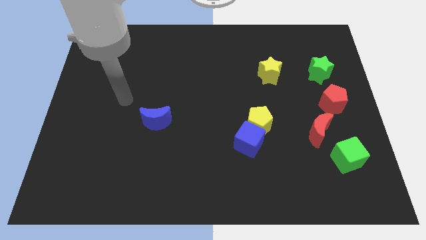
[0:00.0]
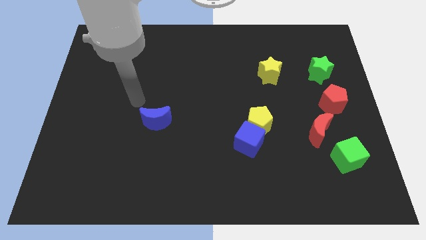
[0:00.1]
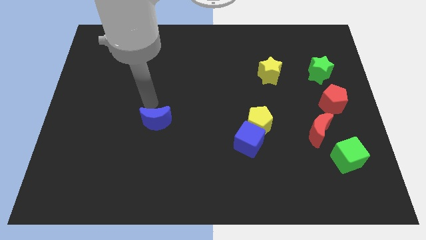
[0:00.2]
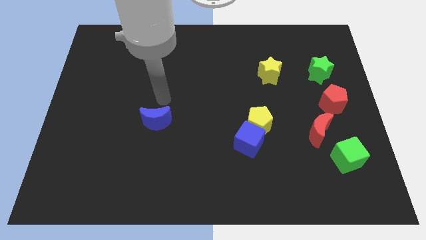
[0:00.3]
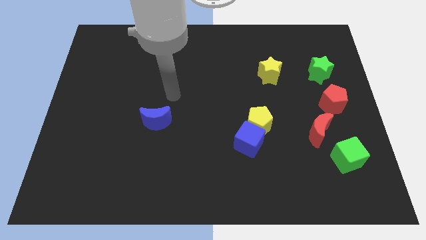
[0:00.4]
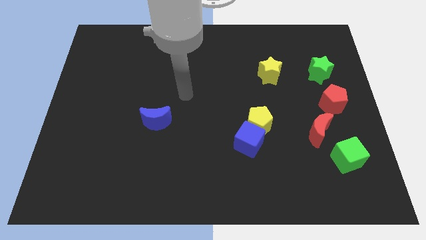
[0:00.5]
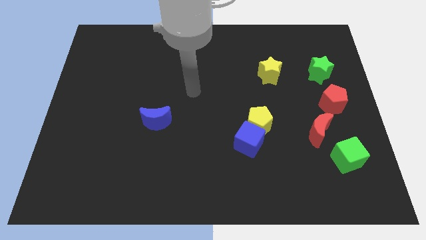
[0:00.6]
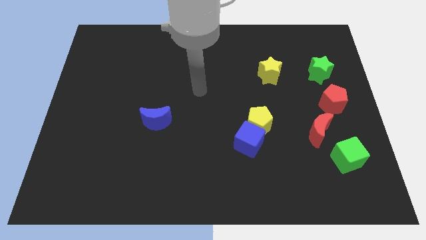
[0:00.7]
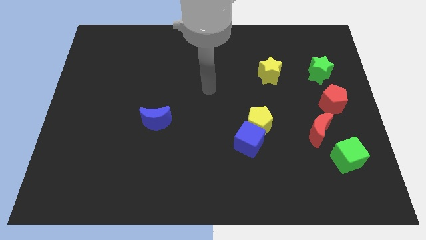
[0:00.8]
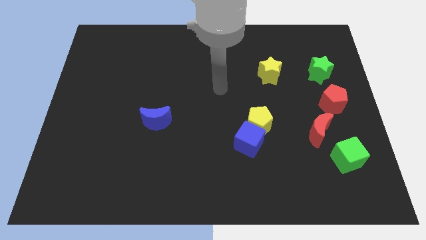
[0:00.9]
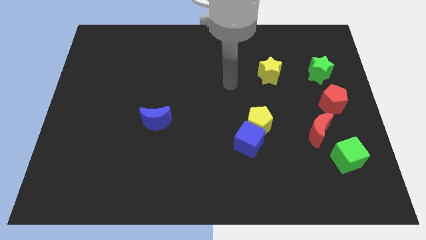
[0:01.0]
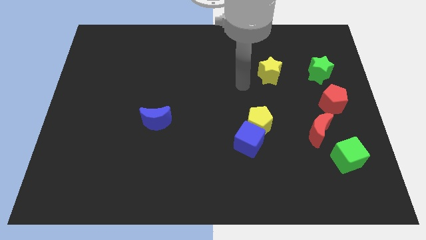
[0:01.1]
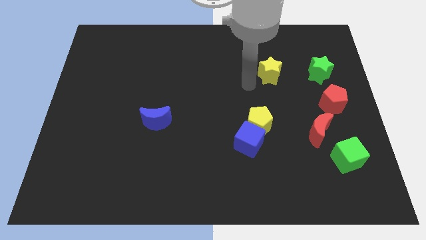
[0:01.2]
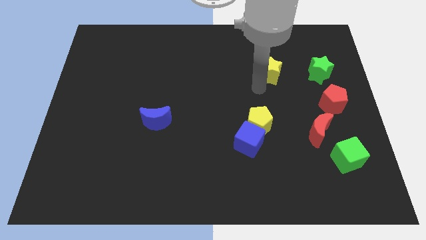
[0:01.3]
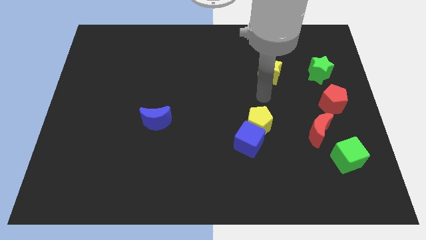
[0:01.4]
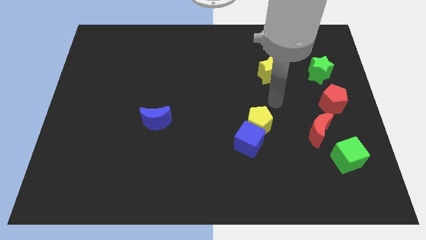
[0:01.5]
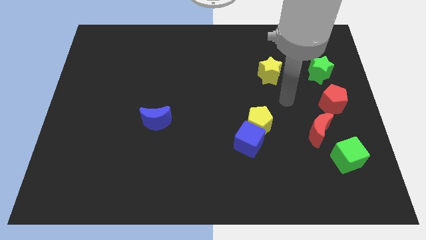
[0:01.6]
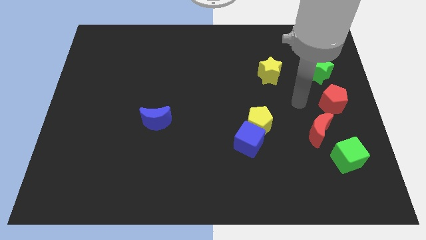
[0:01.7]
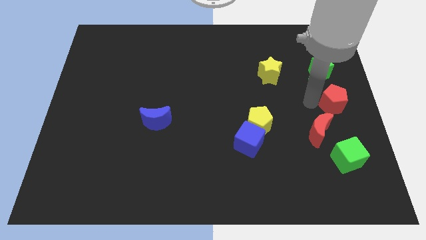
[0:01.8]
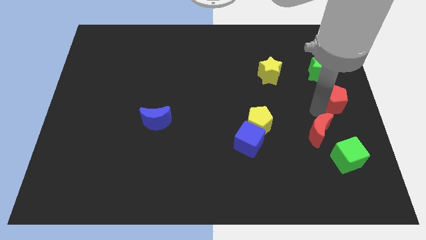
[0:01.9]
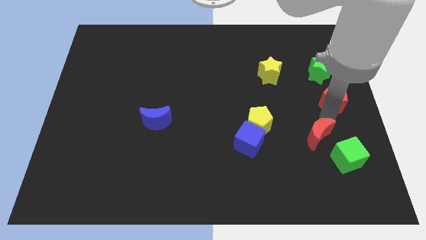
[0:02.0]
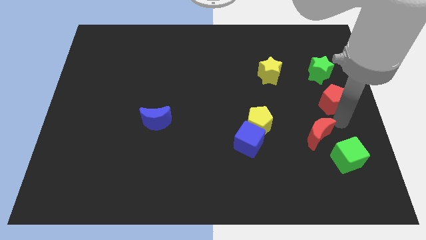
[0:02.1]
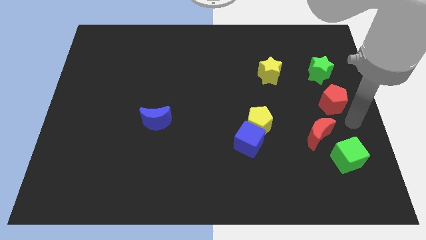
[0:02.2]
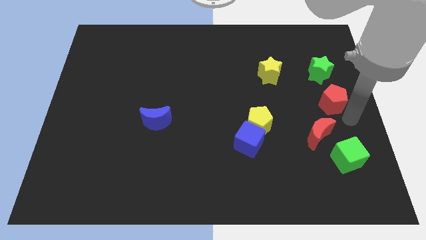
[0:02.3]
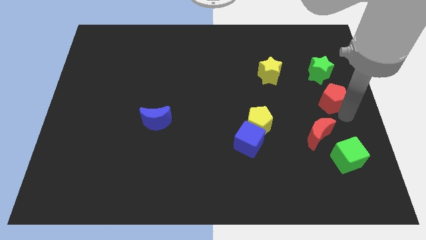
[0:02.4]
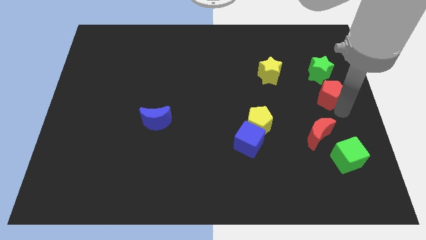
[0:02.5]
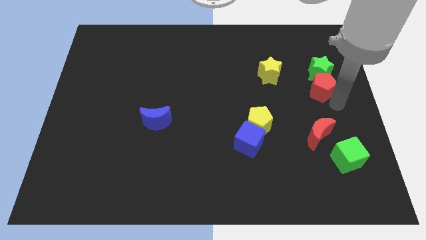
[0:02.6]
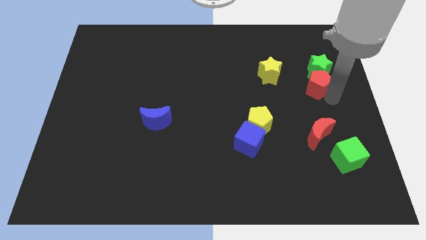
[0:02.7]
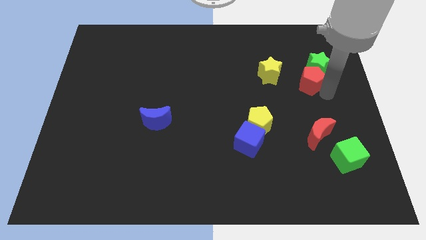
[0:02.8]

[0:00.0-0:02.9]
slightly slide the red pentagon up and to the left diagonally

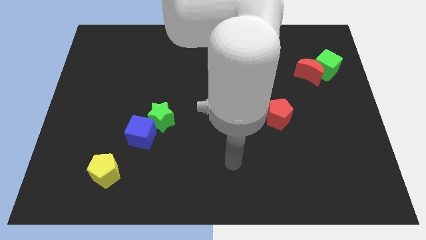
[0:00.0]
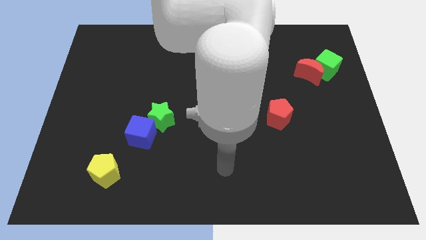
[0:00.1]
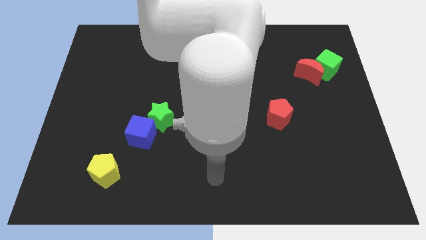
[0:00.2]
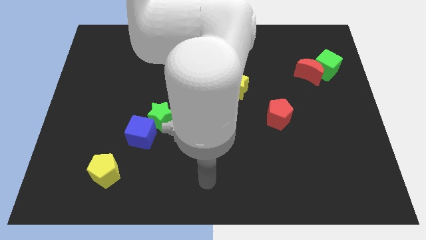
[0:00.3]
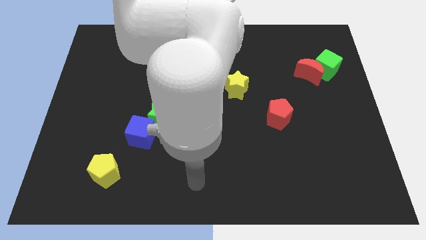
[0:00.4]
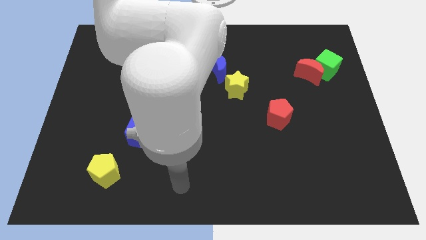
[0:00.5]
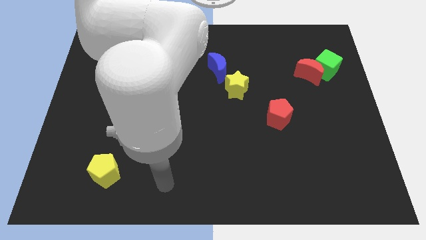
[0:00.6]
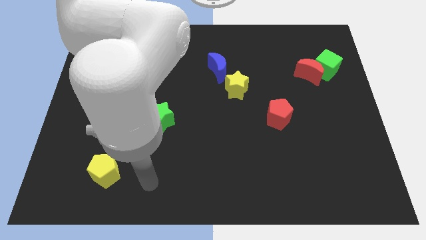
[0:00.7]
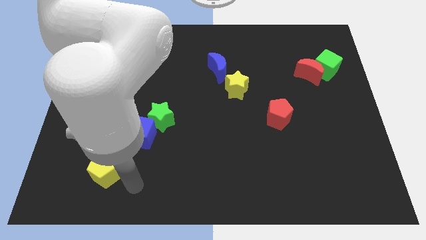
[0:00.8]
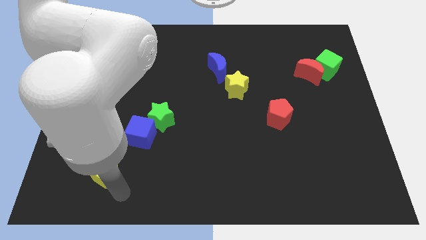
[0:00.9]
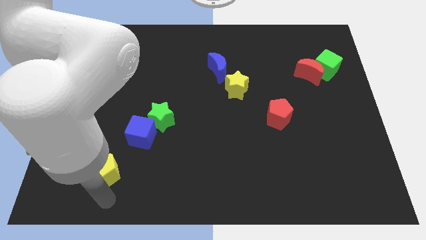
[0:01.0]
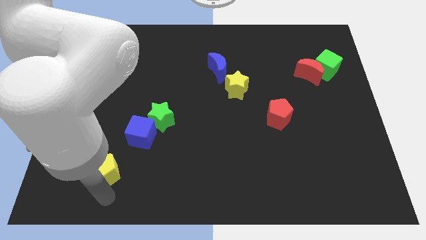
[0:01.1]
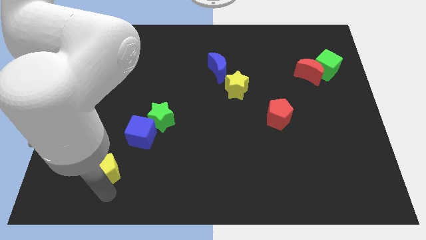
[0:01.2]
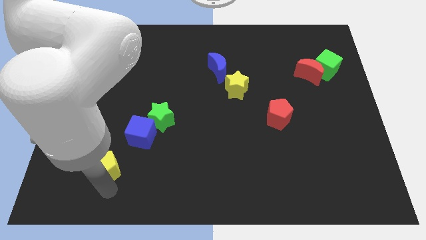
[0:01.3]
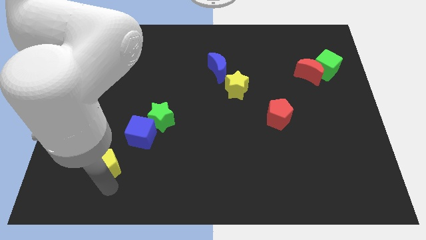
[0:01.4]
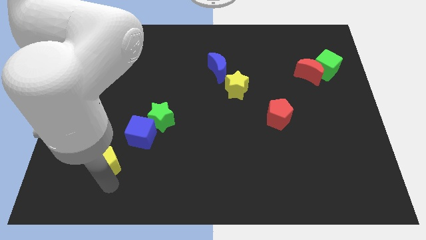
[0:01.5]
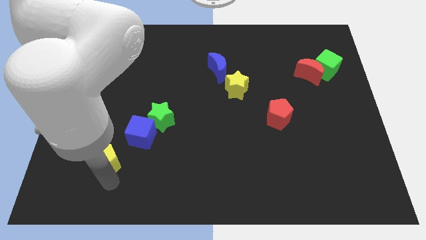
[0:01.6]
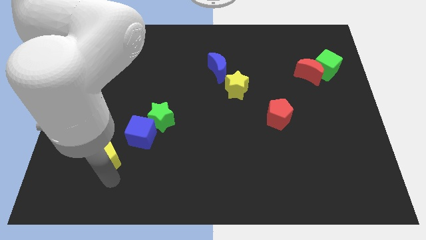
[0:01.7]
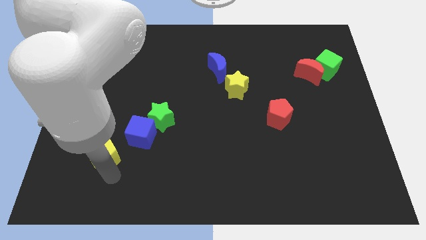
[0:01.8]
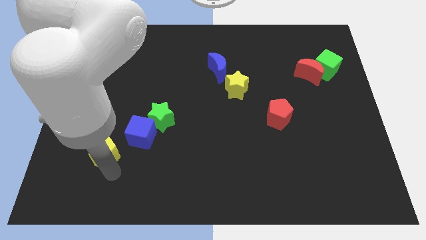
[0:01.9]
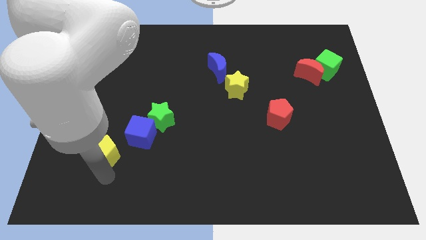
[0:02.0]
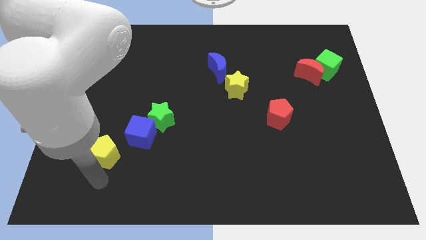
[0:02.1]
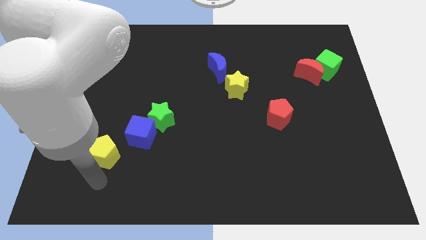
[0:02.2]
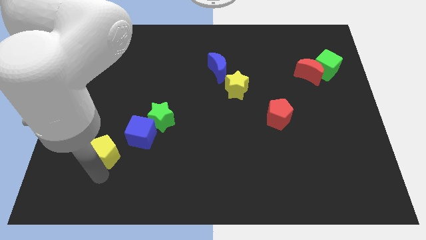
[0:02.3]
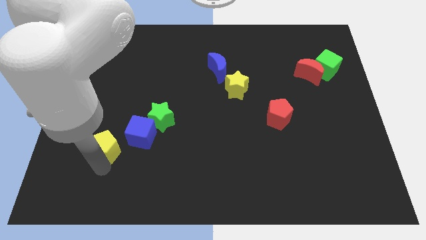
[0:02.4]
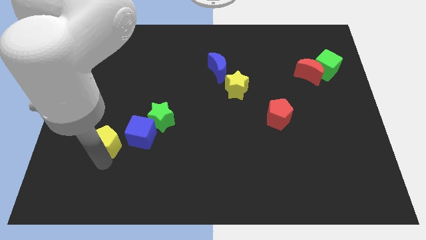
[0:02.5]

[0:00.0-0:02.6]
slightly slide the yellow pentagon up

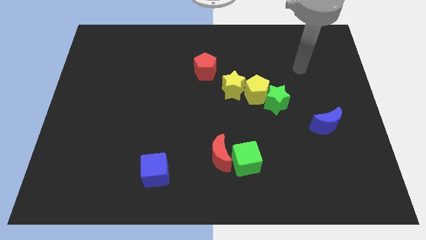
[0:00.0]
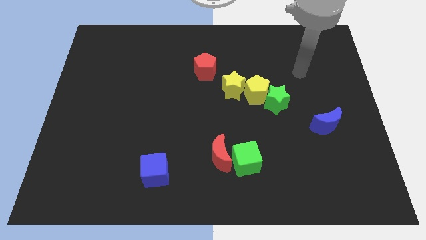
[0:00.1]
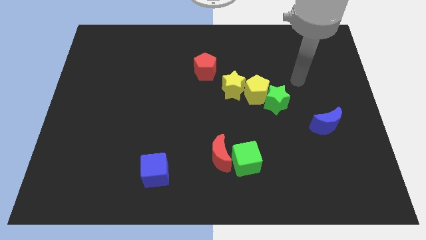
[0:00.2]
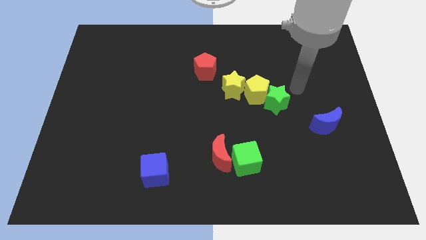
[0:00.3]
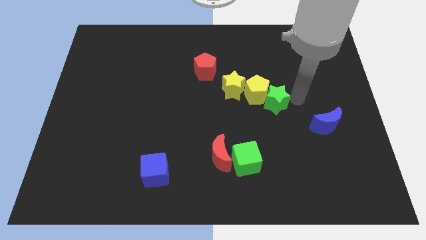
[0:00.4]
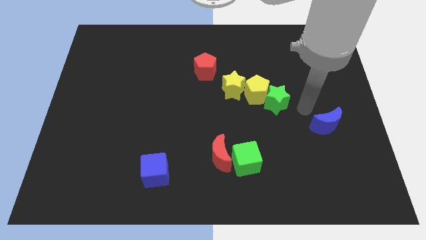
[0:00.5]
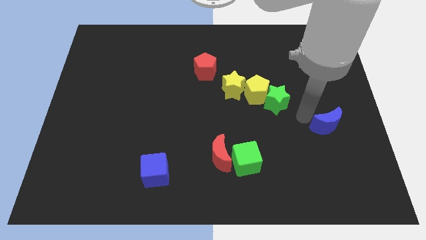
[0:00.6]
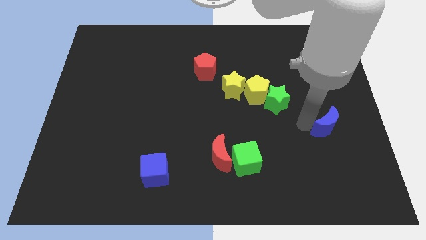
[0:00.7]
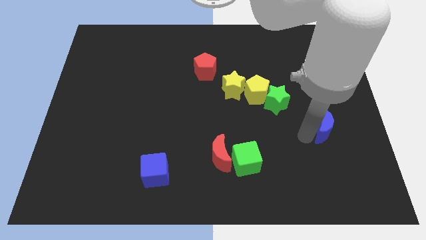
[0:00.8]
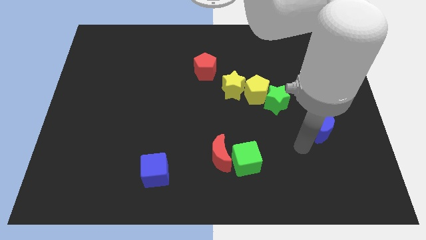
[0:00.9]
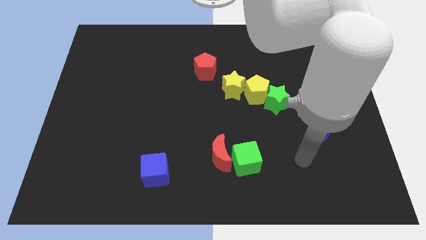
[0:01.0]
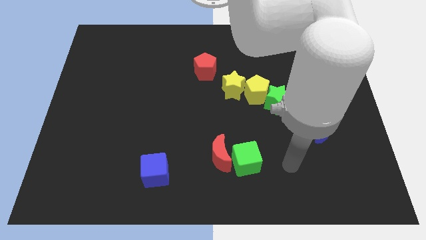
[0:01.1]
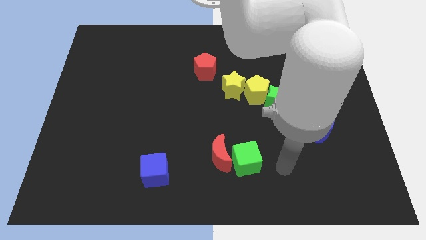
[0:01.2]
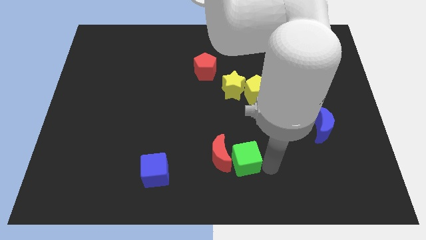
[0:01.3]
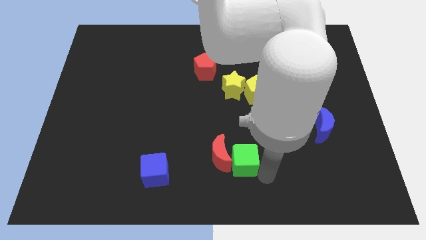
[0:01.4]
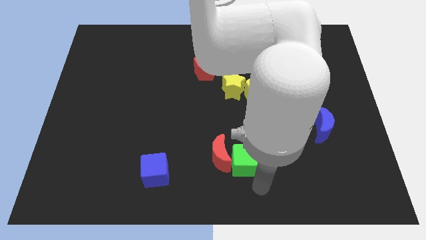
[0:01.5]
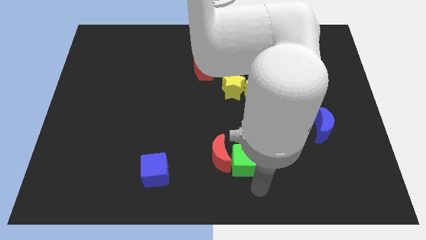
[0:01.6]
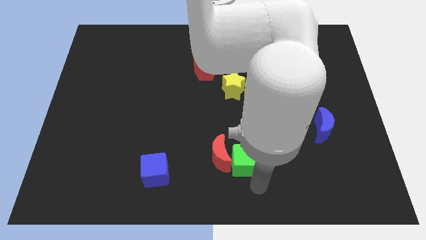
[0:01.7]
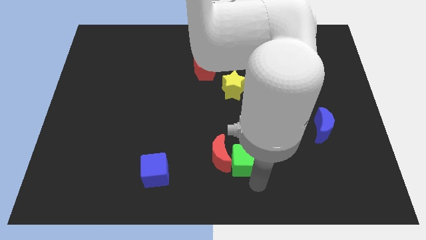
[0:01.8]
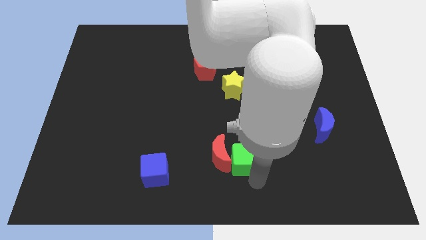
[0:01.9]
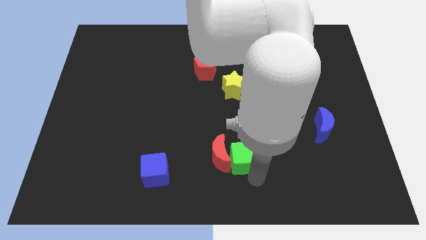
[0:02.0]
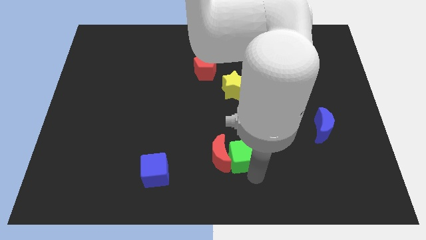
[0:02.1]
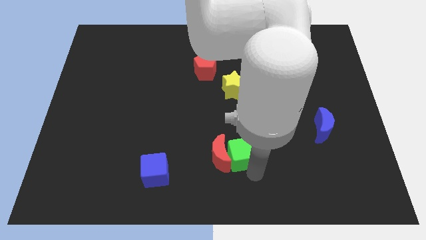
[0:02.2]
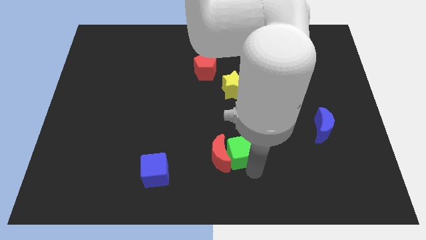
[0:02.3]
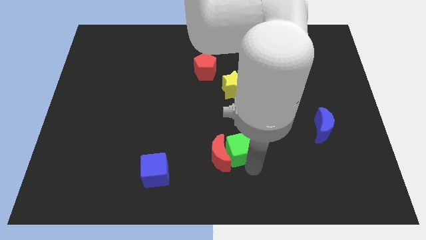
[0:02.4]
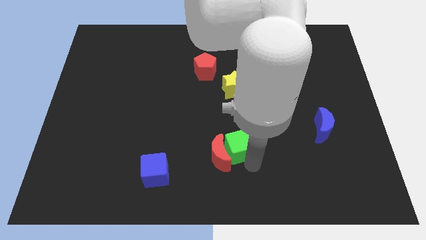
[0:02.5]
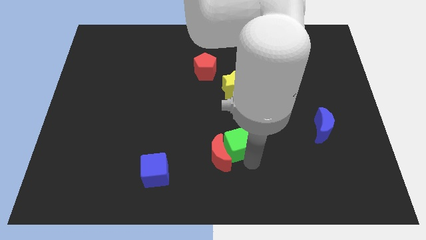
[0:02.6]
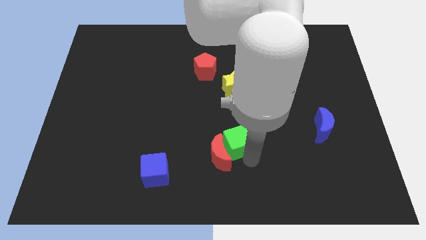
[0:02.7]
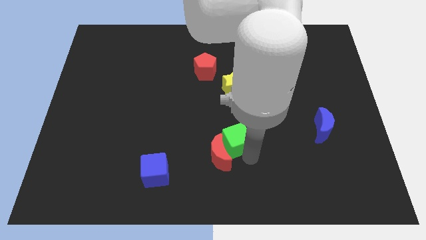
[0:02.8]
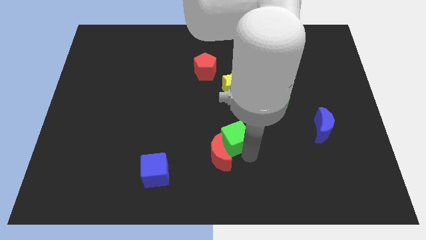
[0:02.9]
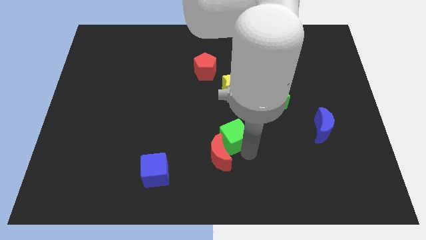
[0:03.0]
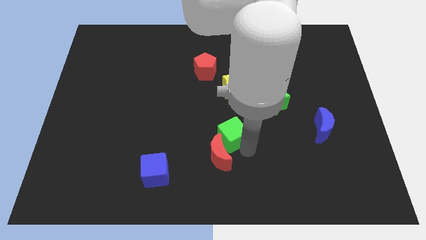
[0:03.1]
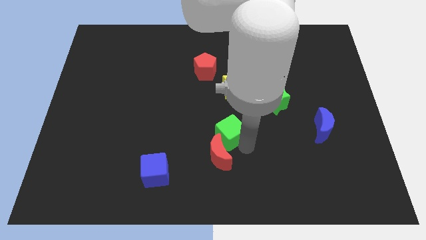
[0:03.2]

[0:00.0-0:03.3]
push the green cube up and left a little
